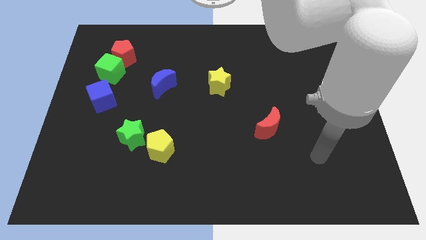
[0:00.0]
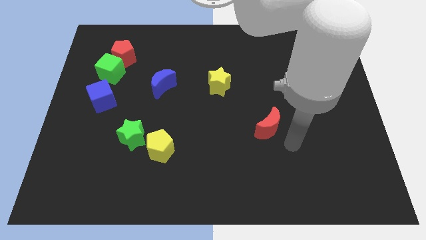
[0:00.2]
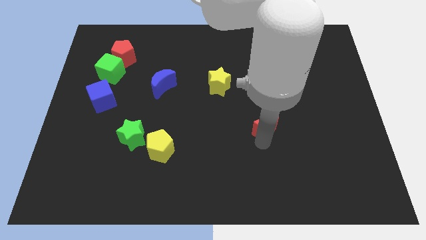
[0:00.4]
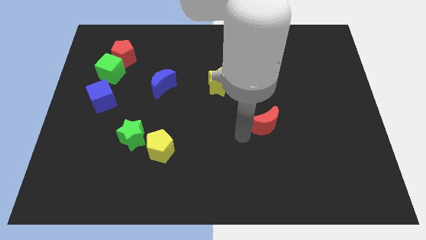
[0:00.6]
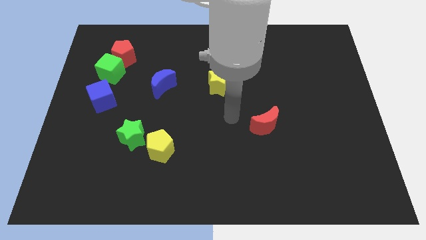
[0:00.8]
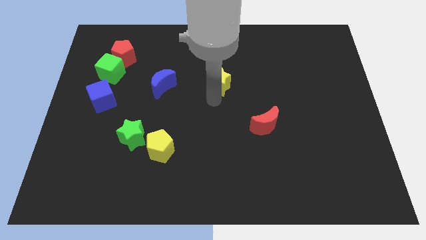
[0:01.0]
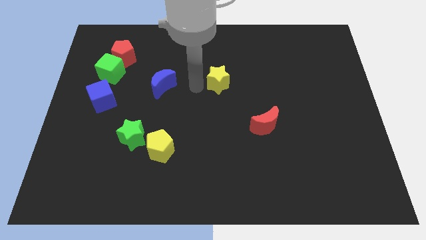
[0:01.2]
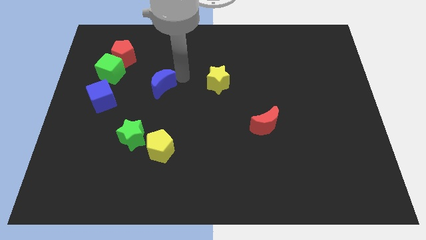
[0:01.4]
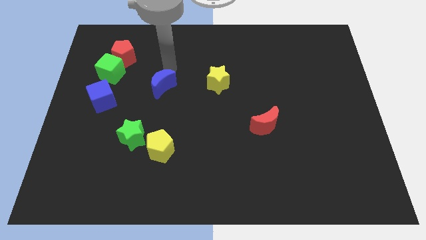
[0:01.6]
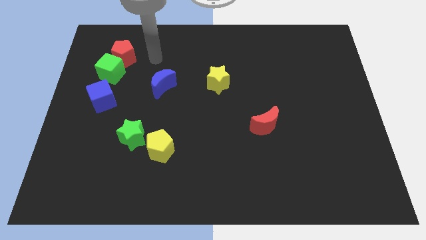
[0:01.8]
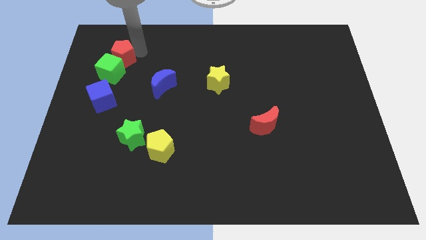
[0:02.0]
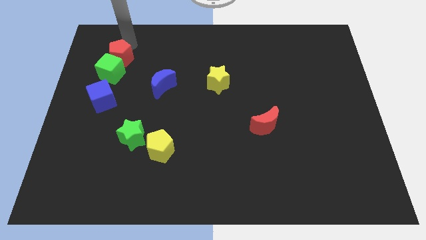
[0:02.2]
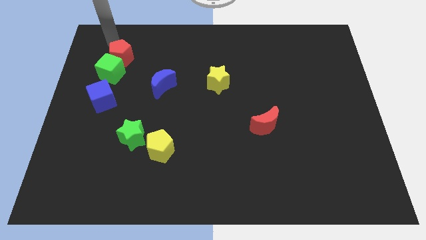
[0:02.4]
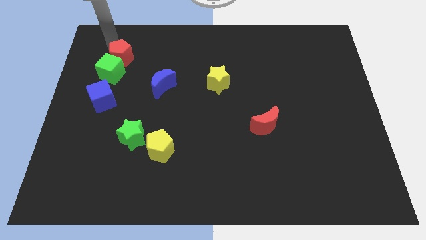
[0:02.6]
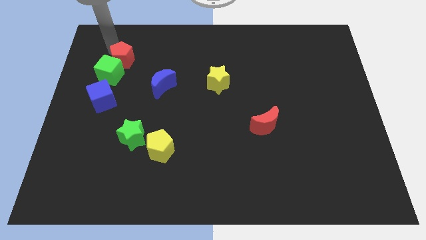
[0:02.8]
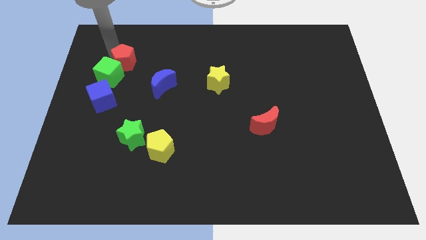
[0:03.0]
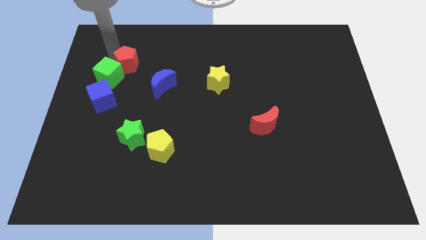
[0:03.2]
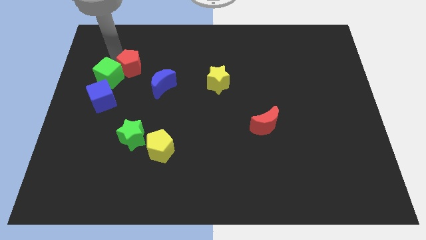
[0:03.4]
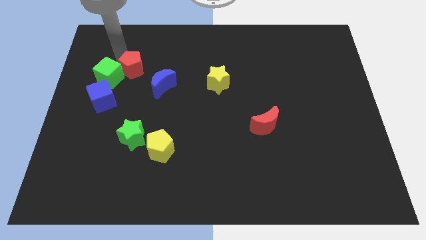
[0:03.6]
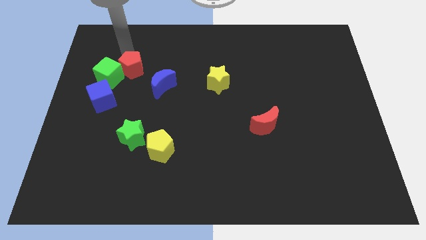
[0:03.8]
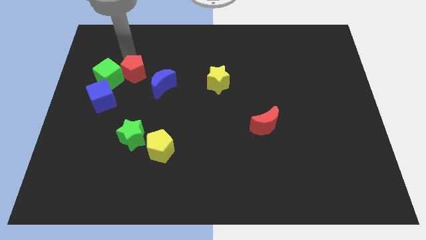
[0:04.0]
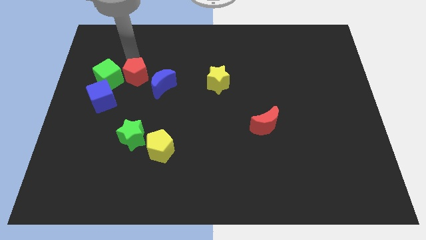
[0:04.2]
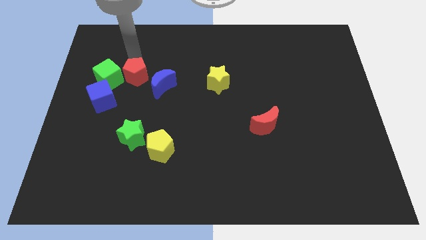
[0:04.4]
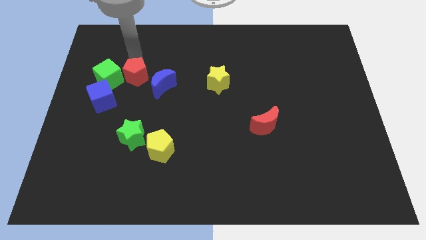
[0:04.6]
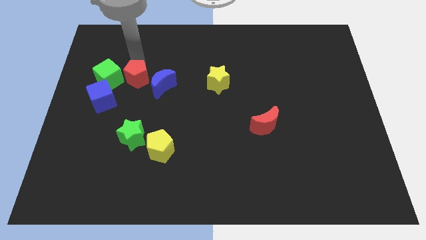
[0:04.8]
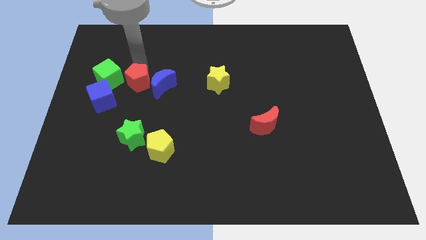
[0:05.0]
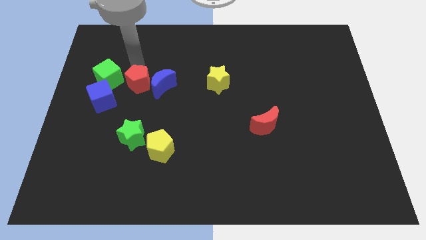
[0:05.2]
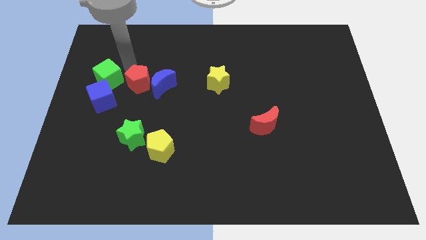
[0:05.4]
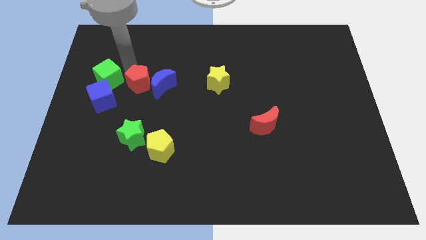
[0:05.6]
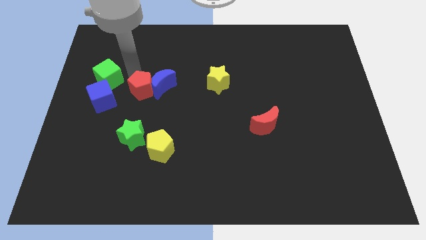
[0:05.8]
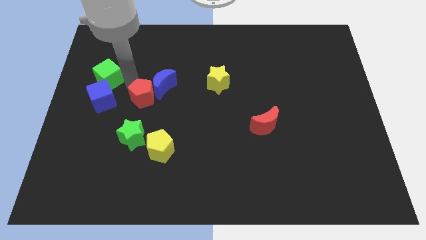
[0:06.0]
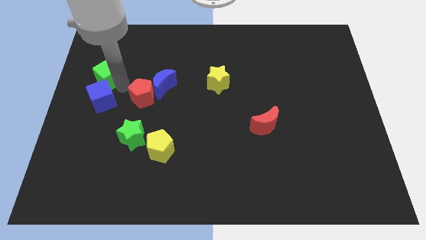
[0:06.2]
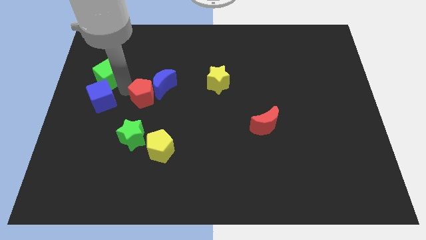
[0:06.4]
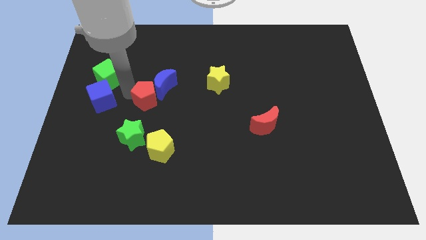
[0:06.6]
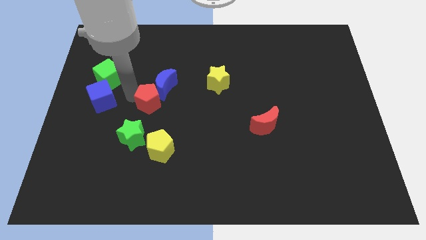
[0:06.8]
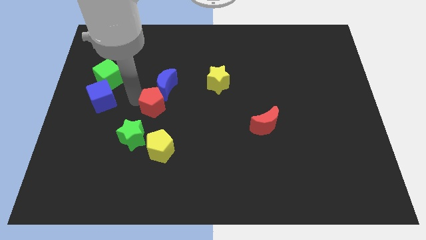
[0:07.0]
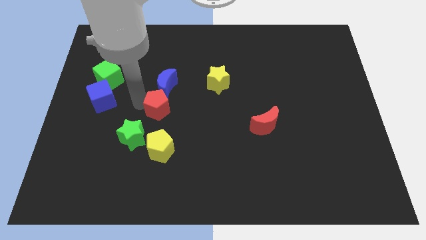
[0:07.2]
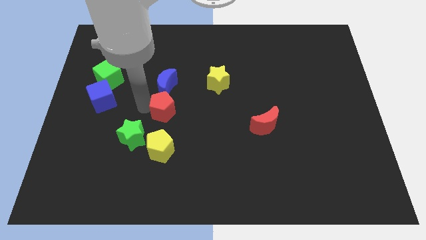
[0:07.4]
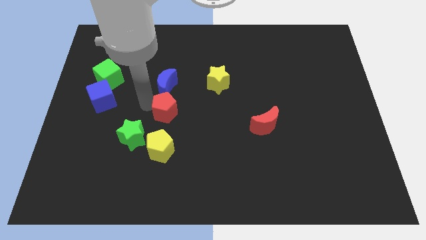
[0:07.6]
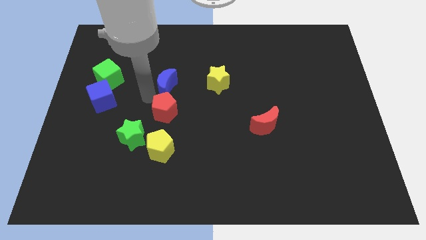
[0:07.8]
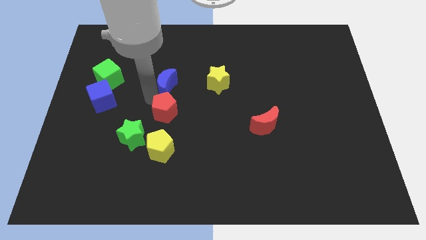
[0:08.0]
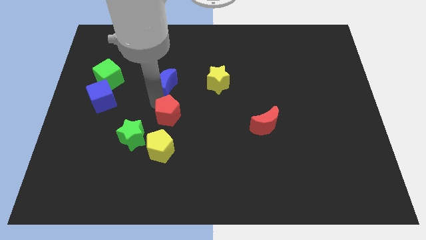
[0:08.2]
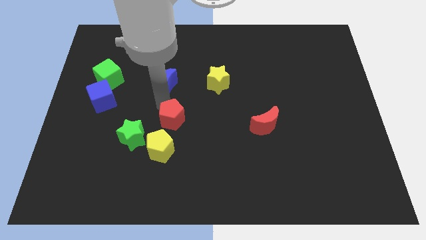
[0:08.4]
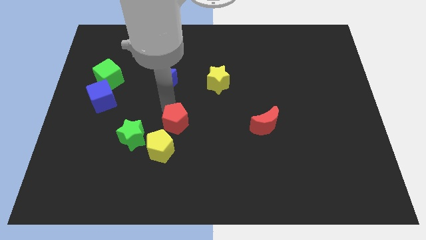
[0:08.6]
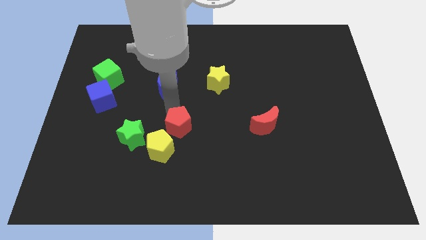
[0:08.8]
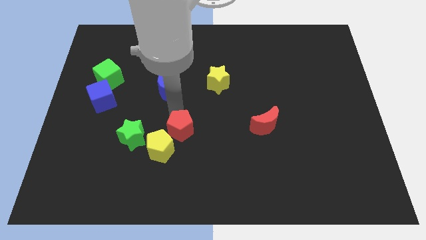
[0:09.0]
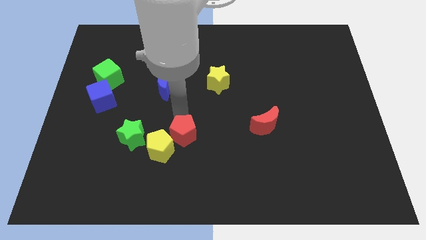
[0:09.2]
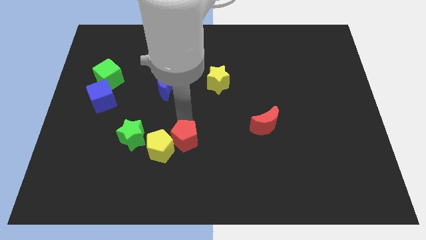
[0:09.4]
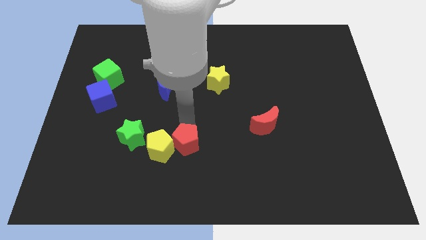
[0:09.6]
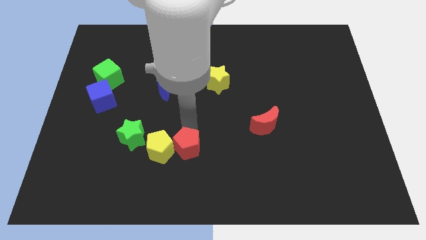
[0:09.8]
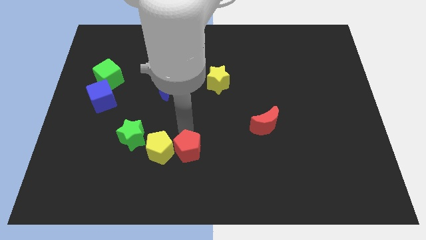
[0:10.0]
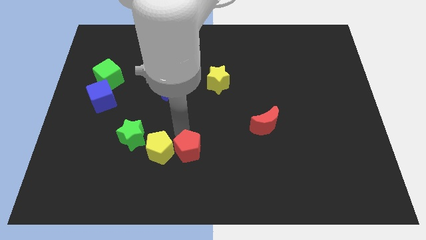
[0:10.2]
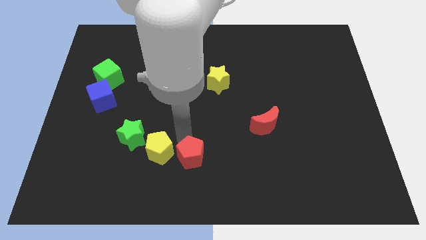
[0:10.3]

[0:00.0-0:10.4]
move the red pentagon to the bottom

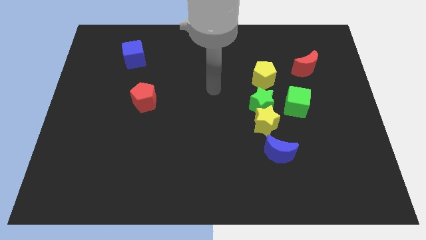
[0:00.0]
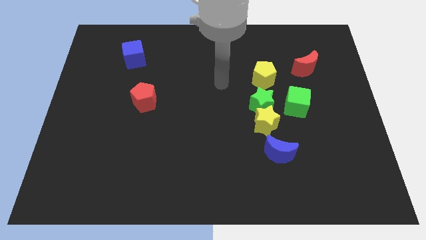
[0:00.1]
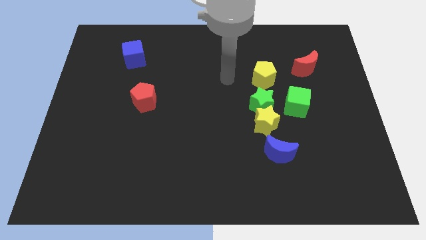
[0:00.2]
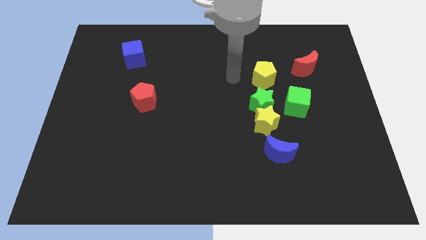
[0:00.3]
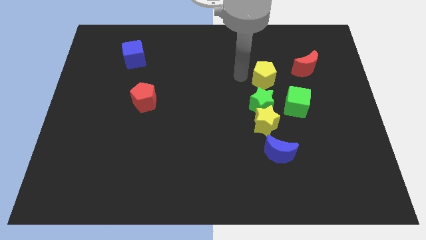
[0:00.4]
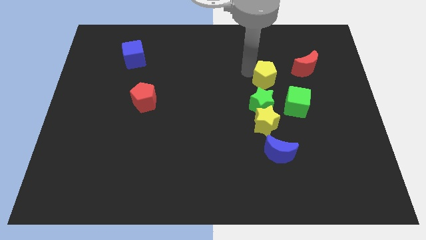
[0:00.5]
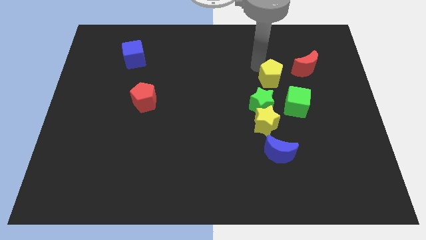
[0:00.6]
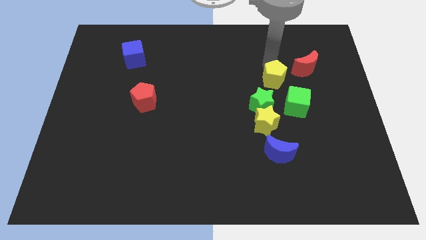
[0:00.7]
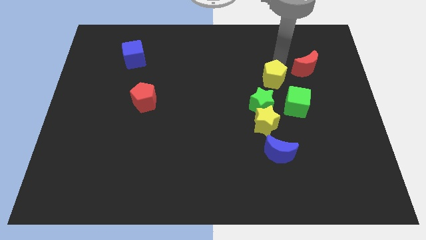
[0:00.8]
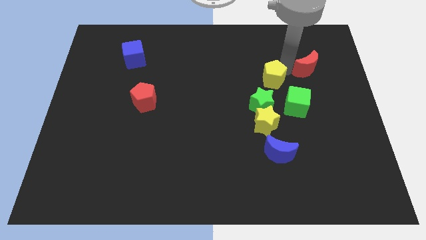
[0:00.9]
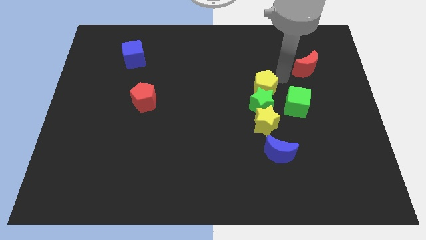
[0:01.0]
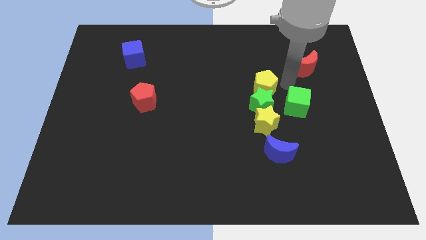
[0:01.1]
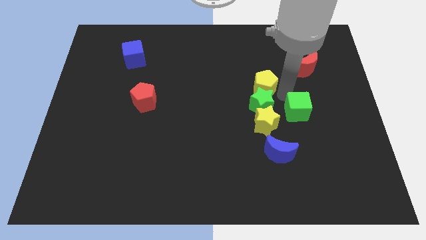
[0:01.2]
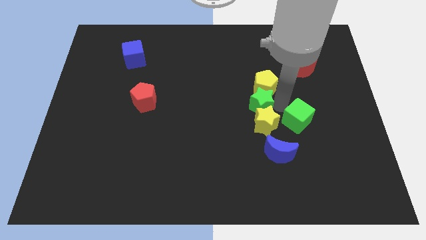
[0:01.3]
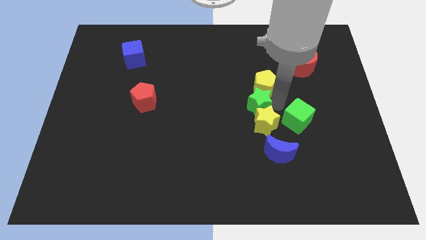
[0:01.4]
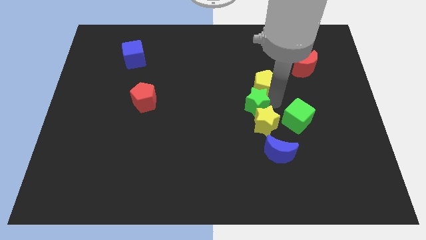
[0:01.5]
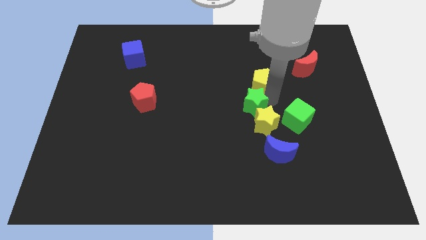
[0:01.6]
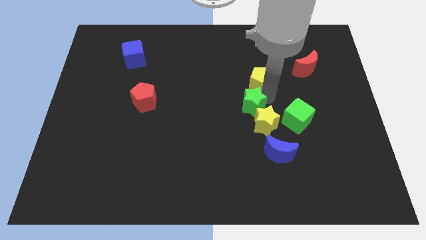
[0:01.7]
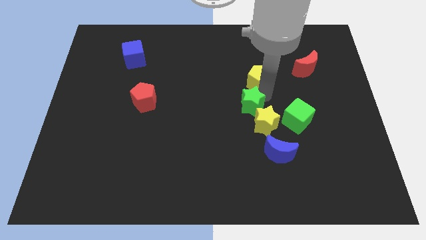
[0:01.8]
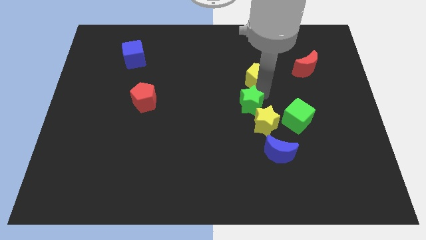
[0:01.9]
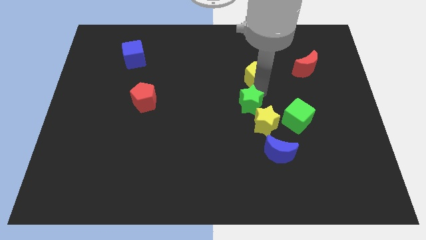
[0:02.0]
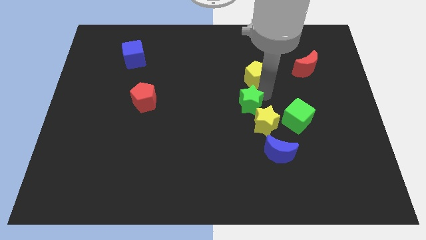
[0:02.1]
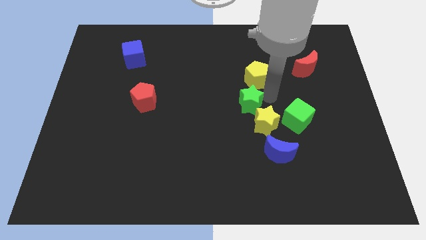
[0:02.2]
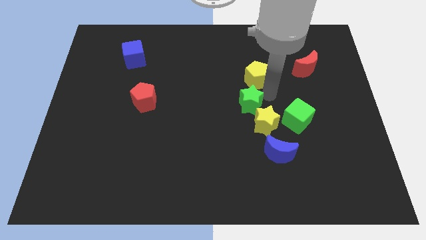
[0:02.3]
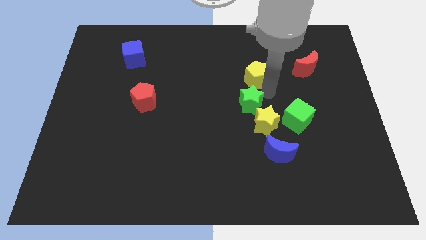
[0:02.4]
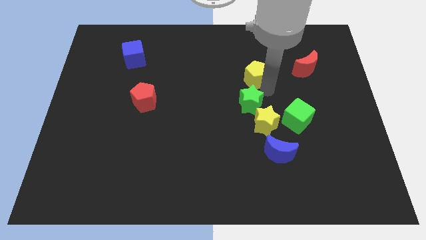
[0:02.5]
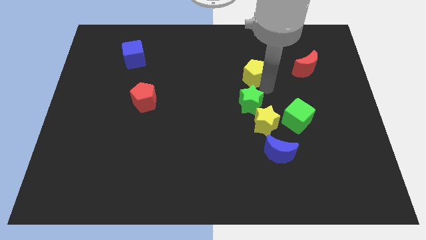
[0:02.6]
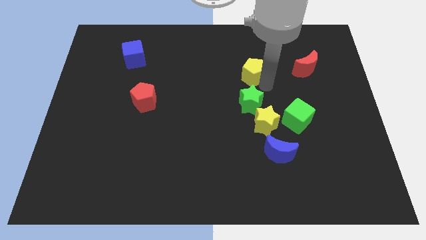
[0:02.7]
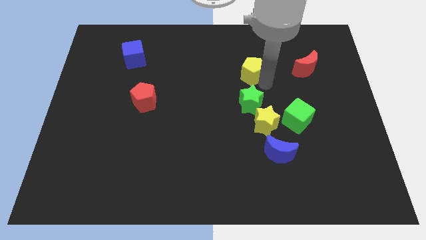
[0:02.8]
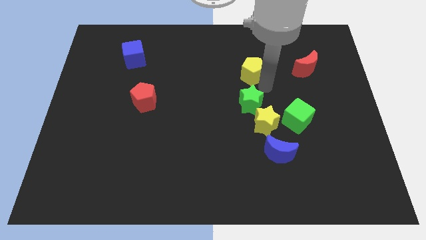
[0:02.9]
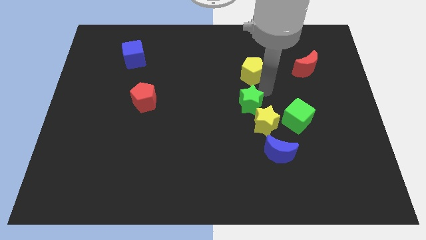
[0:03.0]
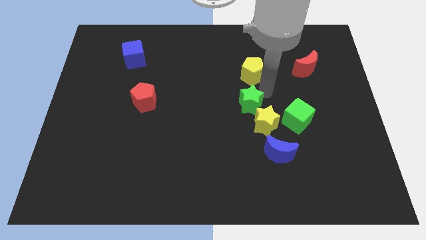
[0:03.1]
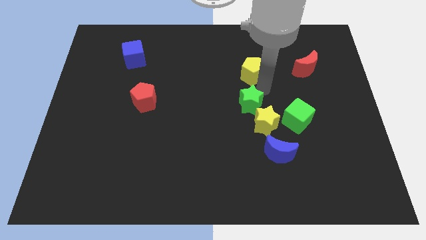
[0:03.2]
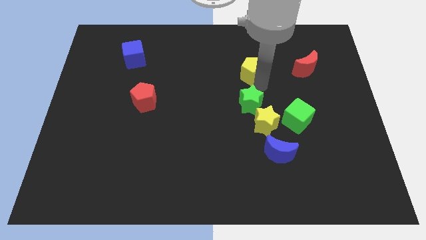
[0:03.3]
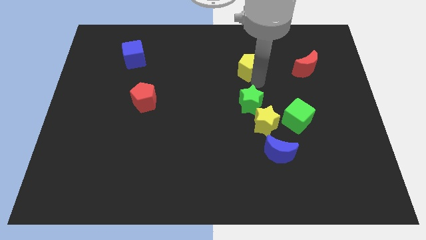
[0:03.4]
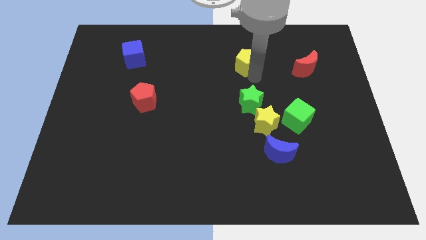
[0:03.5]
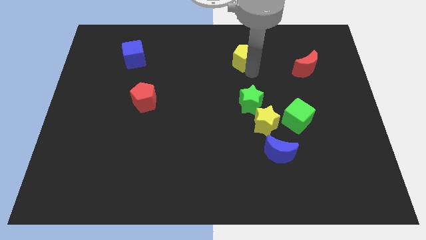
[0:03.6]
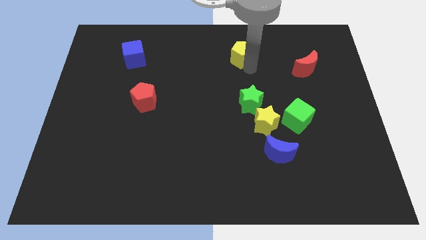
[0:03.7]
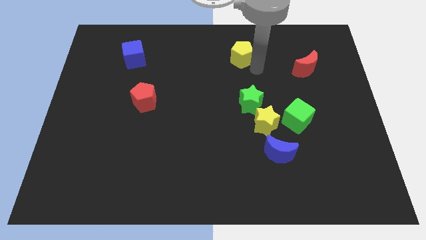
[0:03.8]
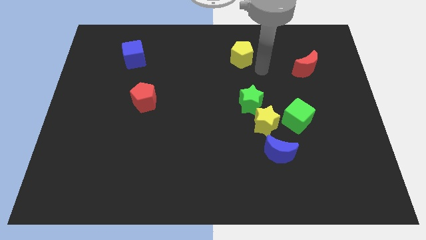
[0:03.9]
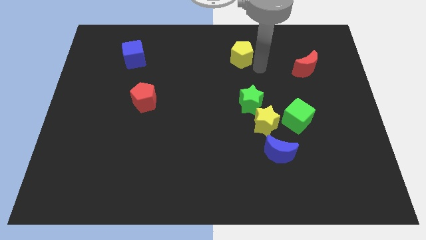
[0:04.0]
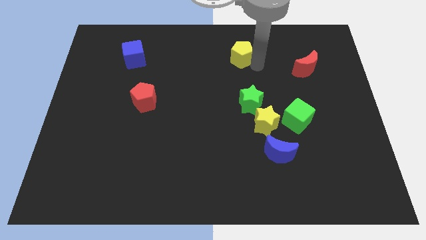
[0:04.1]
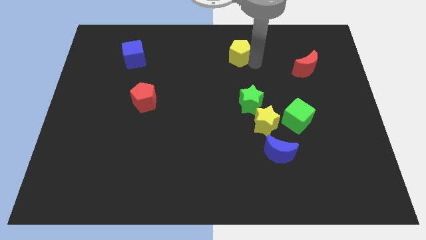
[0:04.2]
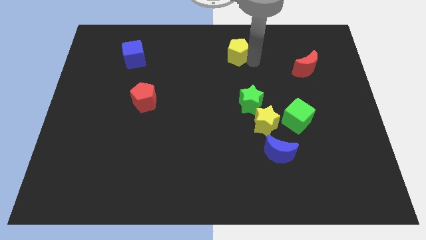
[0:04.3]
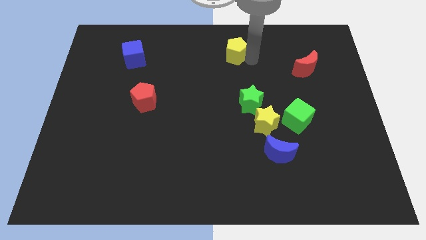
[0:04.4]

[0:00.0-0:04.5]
slide the yellow pentagon to the towards your base
